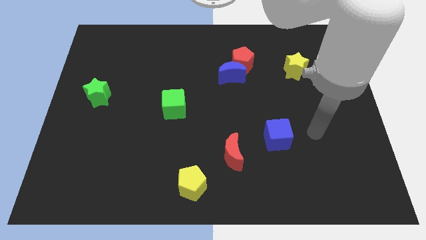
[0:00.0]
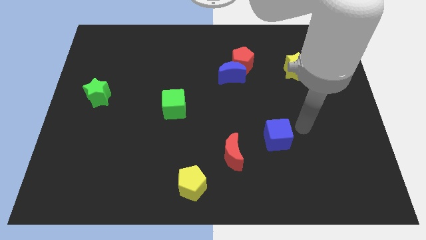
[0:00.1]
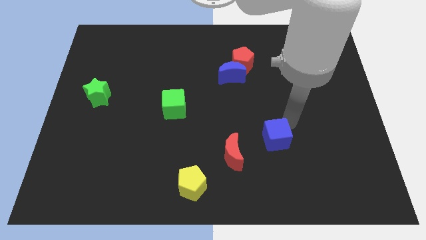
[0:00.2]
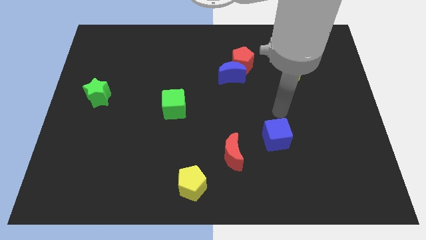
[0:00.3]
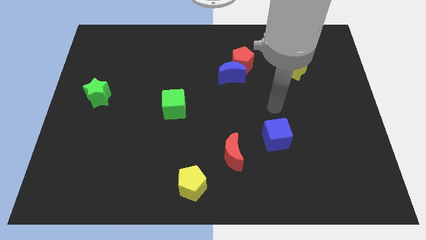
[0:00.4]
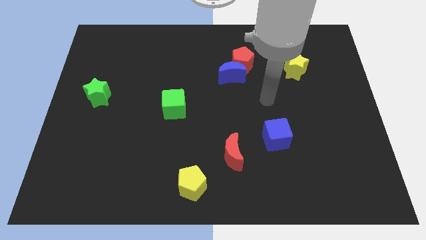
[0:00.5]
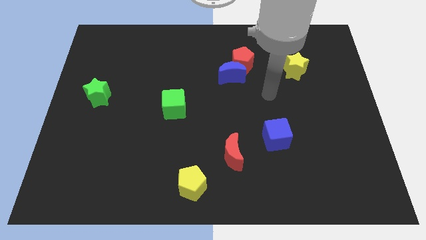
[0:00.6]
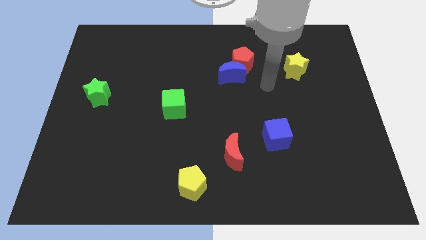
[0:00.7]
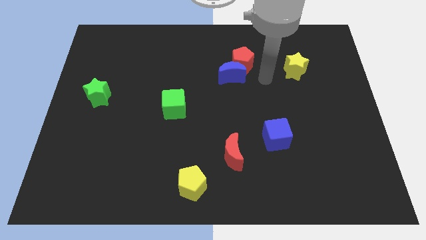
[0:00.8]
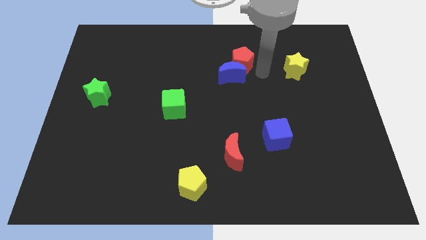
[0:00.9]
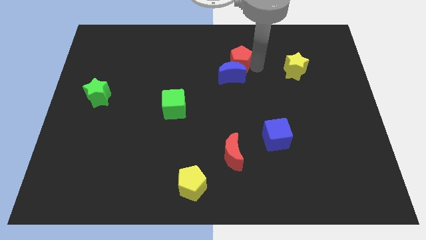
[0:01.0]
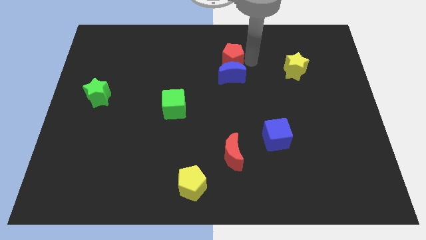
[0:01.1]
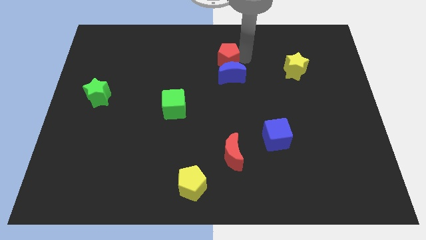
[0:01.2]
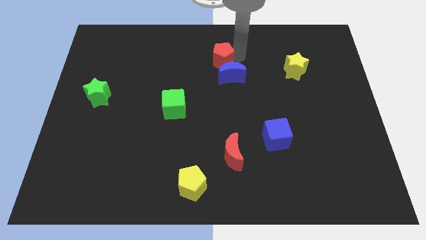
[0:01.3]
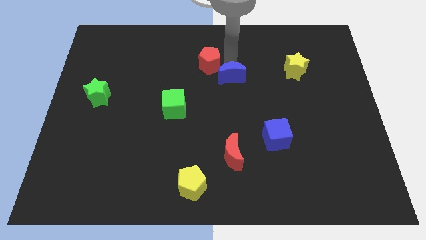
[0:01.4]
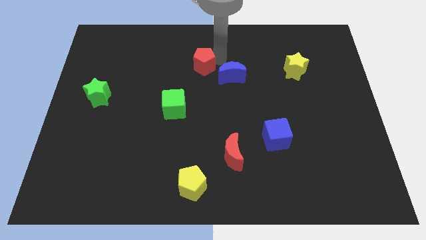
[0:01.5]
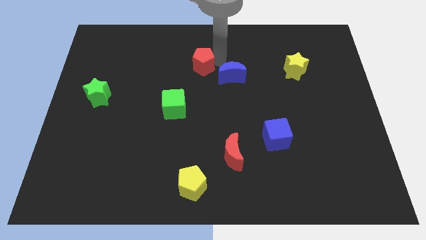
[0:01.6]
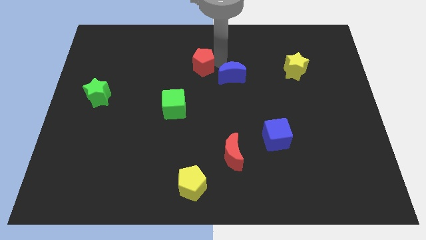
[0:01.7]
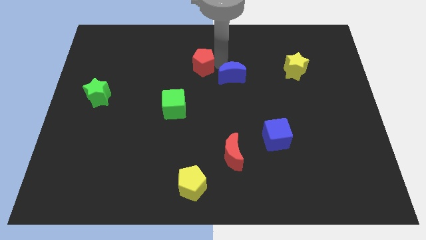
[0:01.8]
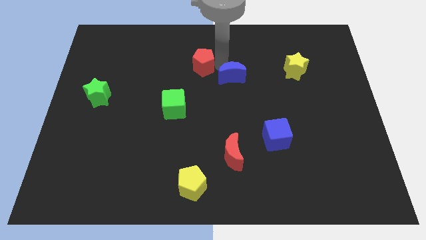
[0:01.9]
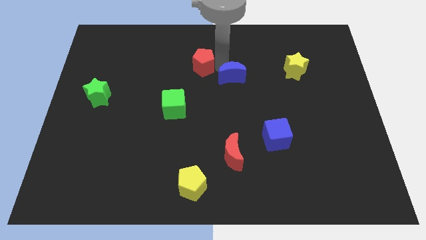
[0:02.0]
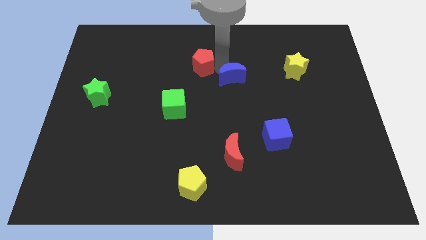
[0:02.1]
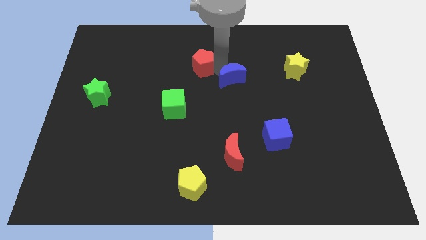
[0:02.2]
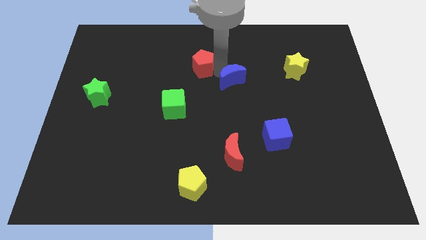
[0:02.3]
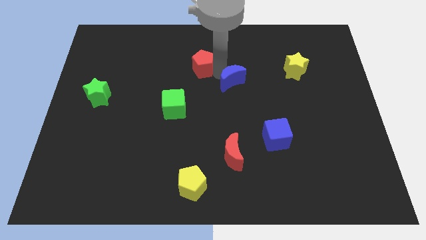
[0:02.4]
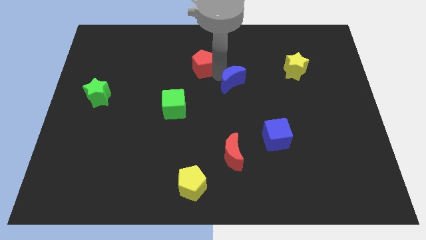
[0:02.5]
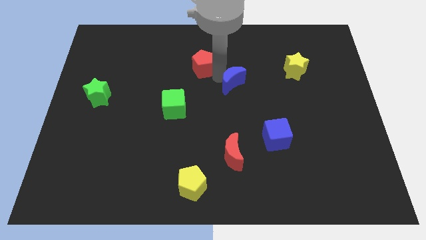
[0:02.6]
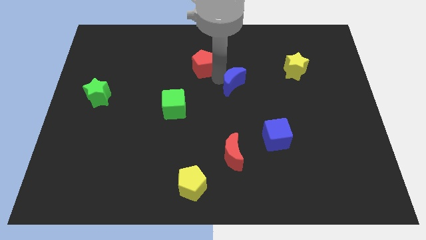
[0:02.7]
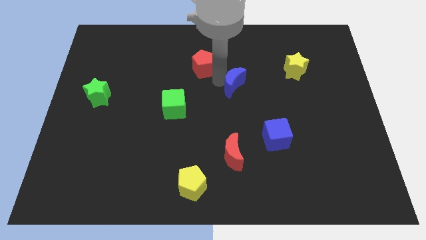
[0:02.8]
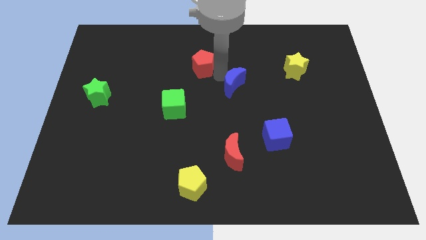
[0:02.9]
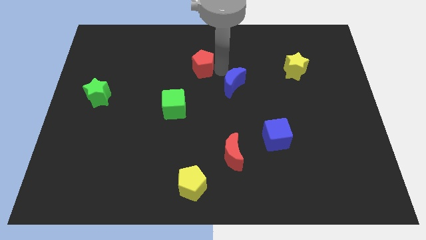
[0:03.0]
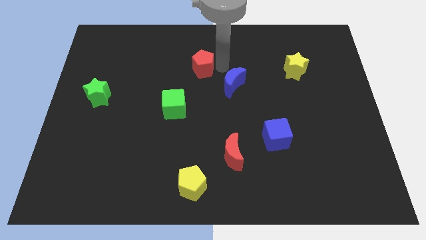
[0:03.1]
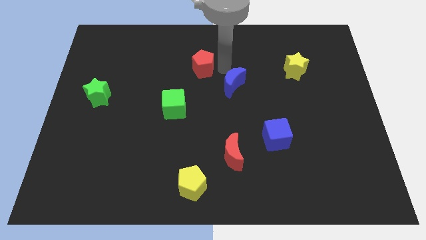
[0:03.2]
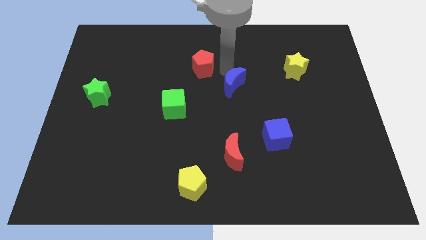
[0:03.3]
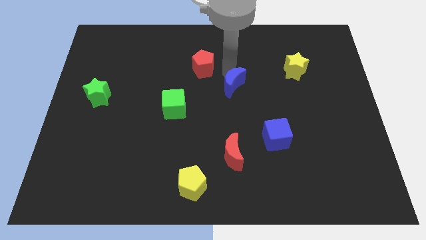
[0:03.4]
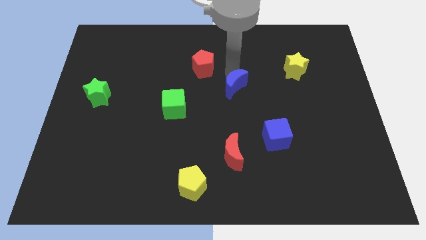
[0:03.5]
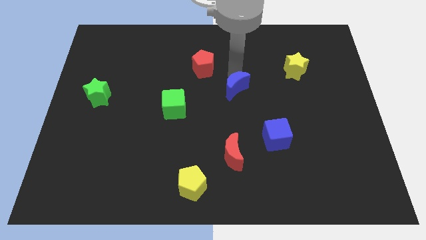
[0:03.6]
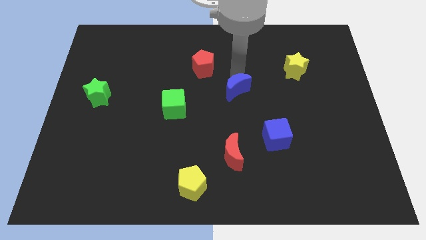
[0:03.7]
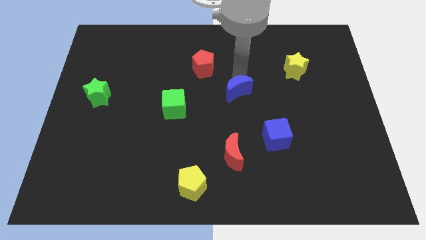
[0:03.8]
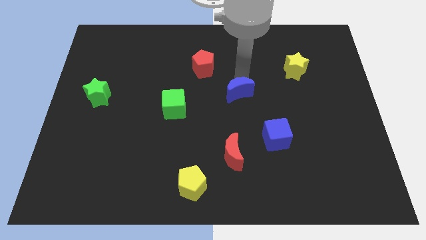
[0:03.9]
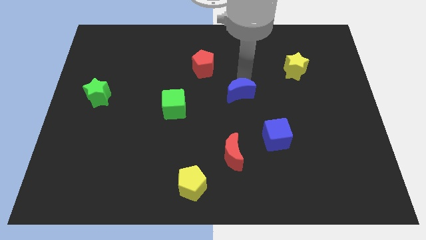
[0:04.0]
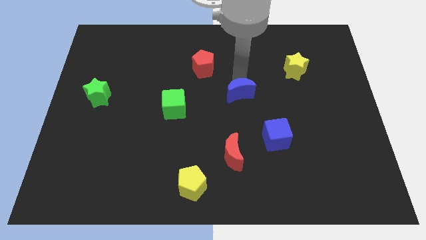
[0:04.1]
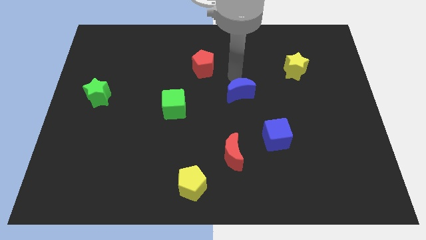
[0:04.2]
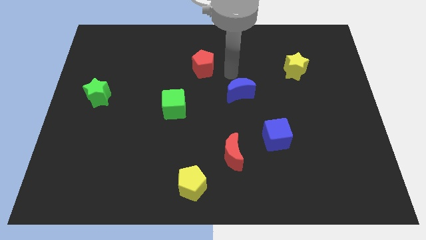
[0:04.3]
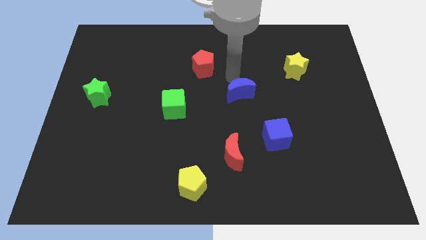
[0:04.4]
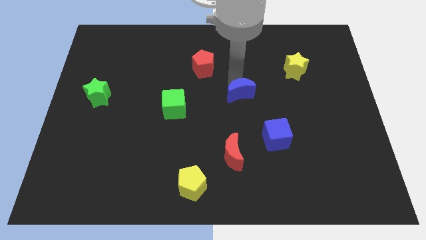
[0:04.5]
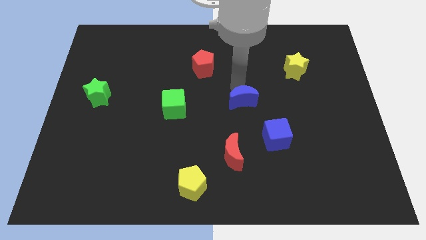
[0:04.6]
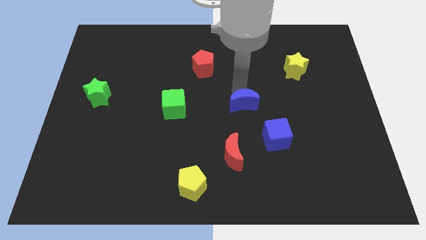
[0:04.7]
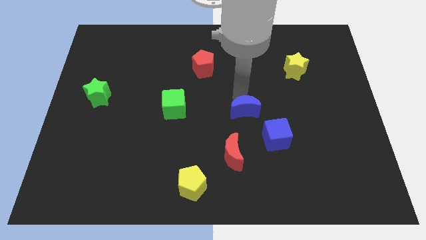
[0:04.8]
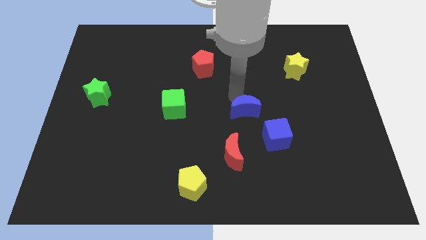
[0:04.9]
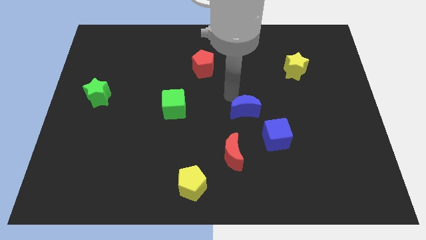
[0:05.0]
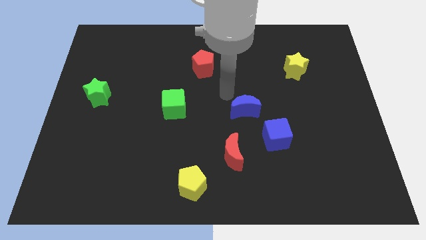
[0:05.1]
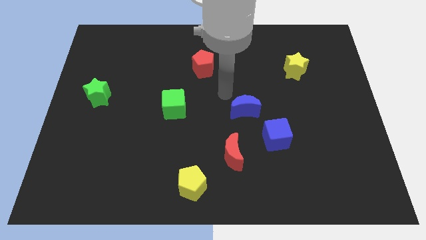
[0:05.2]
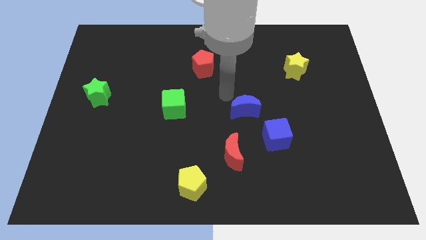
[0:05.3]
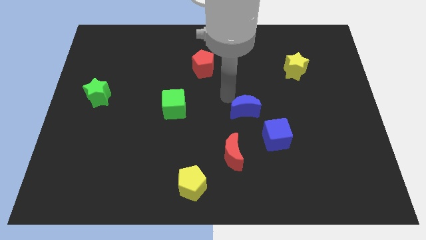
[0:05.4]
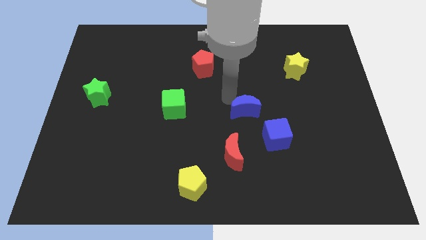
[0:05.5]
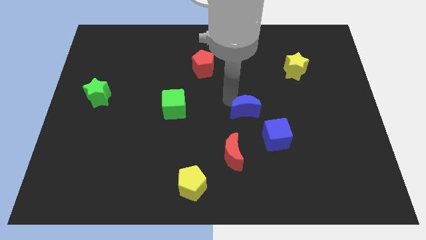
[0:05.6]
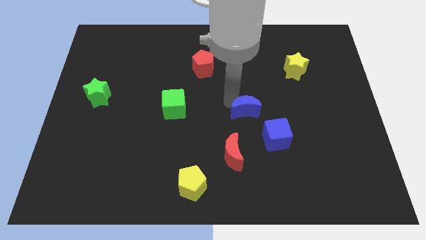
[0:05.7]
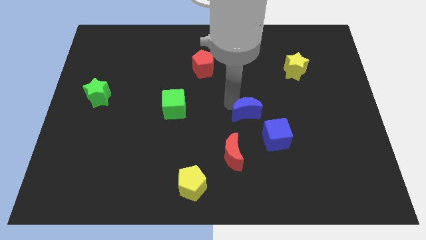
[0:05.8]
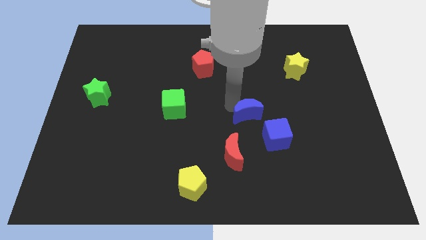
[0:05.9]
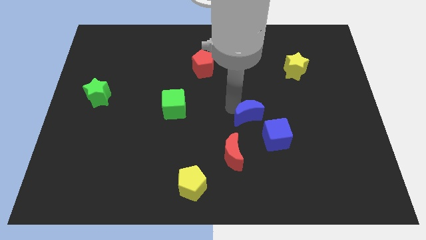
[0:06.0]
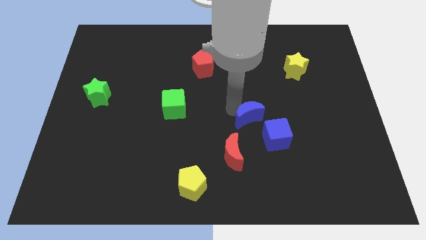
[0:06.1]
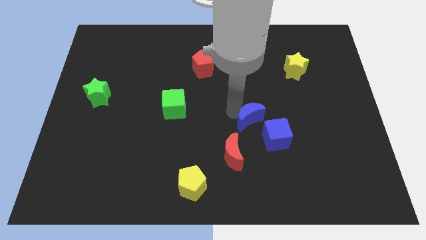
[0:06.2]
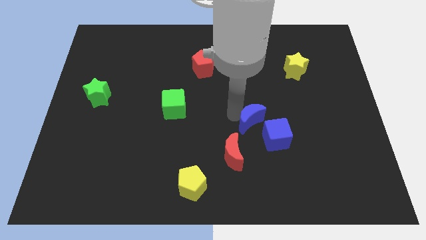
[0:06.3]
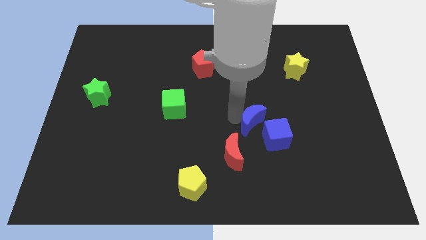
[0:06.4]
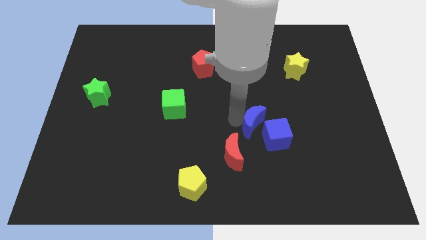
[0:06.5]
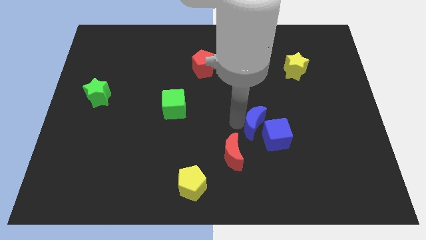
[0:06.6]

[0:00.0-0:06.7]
put the blue moon to the blue cube

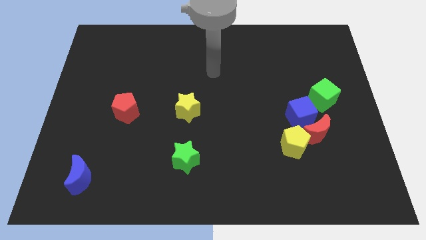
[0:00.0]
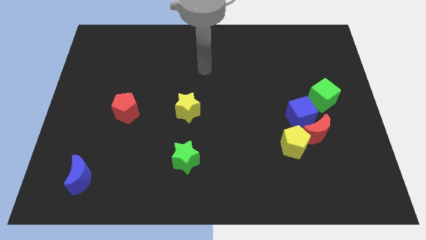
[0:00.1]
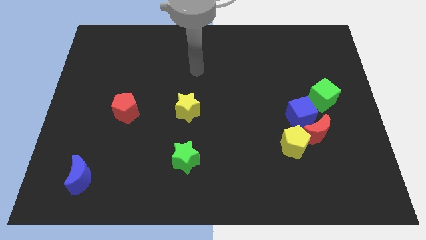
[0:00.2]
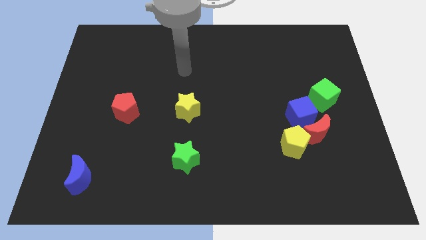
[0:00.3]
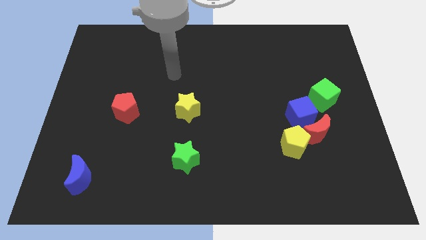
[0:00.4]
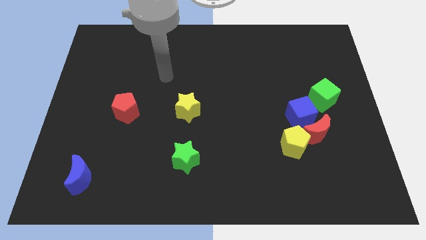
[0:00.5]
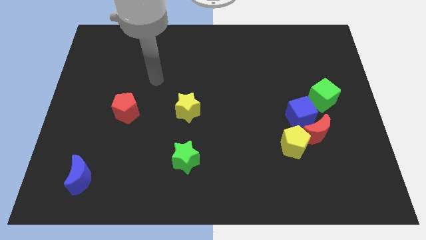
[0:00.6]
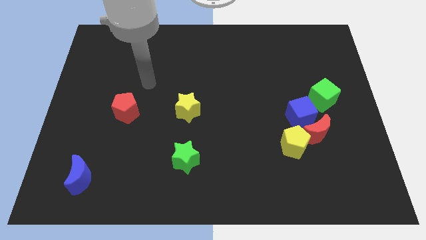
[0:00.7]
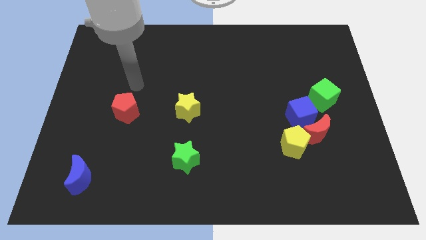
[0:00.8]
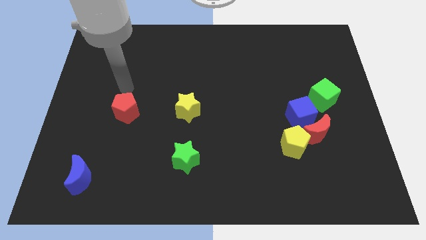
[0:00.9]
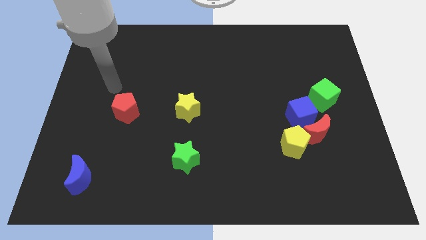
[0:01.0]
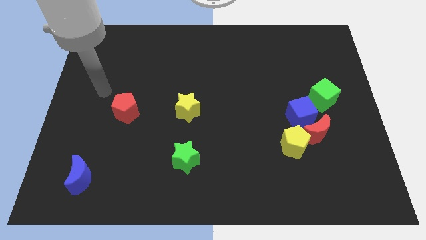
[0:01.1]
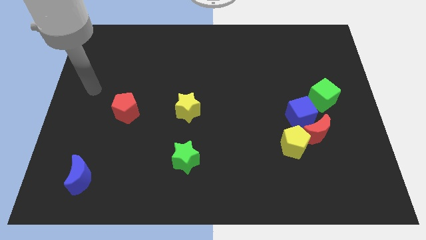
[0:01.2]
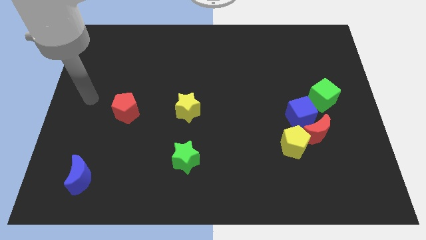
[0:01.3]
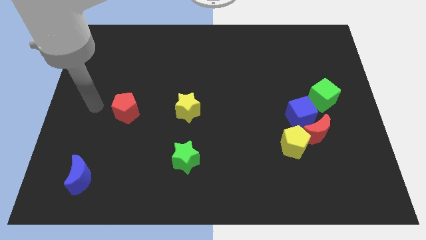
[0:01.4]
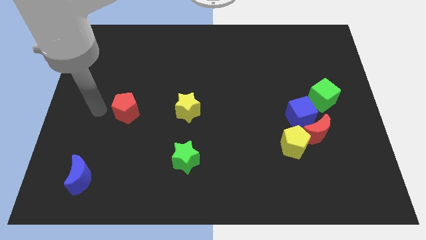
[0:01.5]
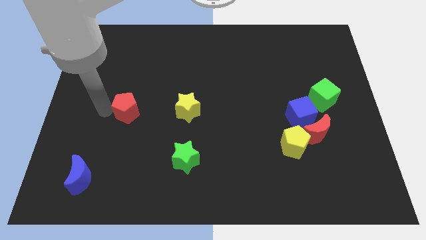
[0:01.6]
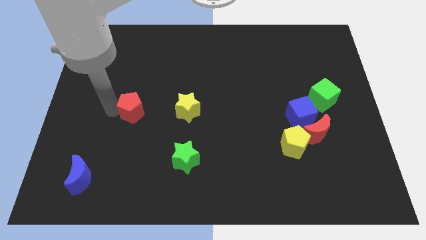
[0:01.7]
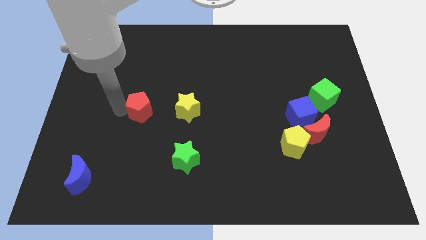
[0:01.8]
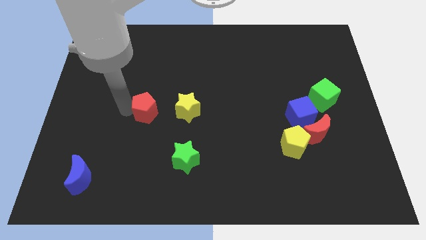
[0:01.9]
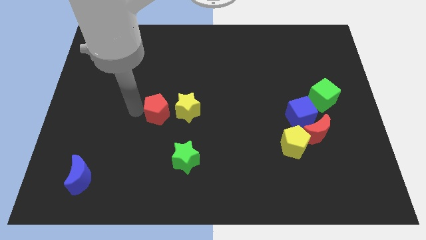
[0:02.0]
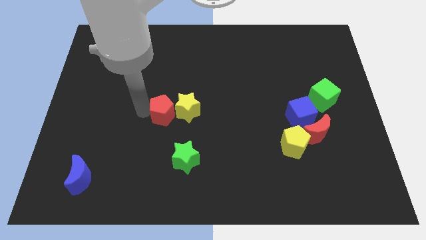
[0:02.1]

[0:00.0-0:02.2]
push the red pentagon towards the yellow star
